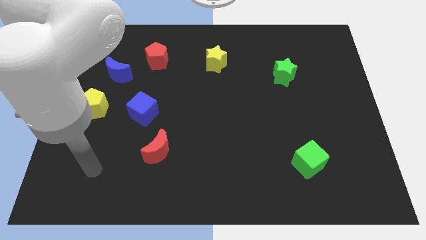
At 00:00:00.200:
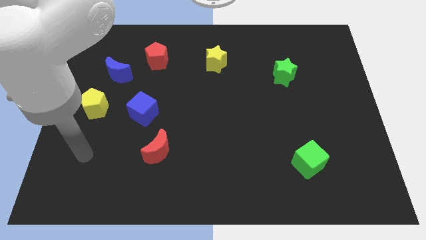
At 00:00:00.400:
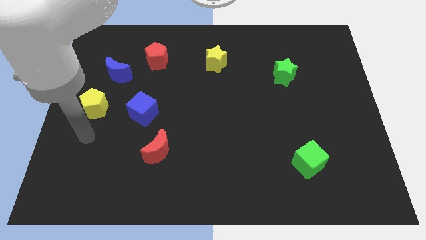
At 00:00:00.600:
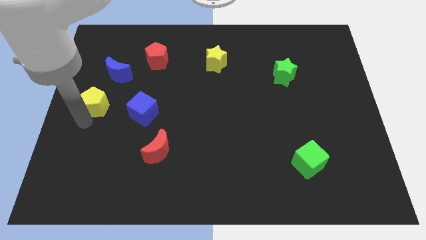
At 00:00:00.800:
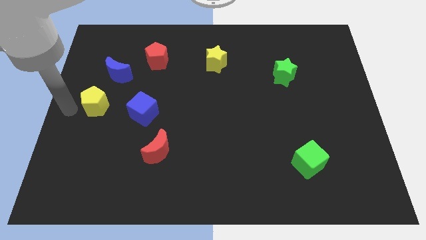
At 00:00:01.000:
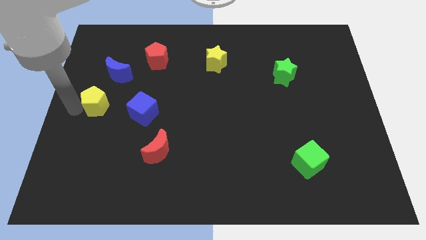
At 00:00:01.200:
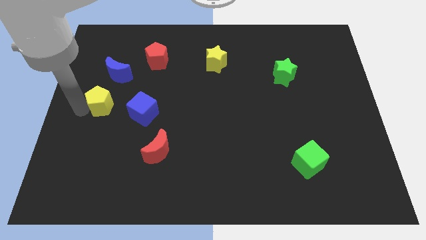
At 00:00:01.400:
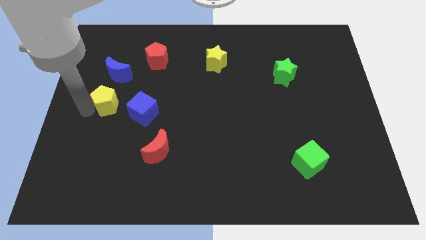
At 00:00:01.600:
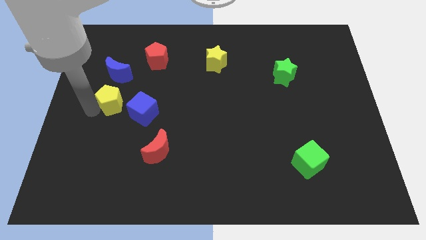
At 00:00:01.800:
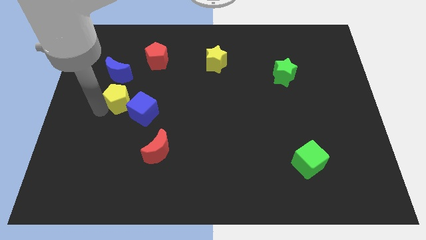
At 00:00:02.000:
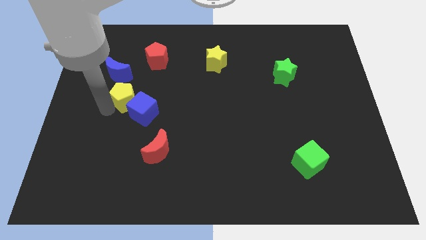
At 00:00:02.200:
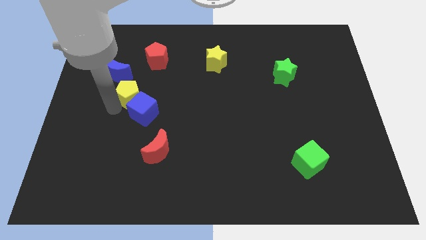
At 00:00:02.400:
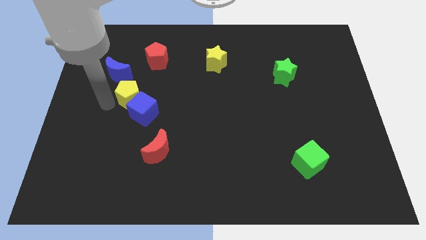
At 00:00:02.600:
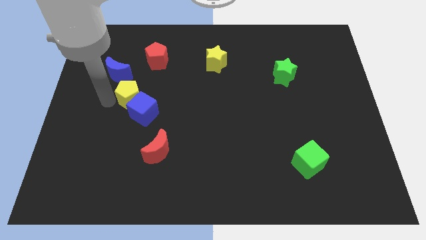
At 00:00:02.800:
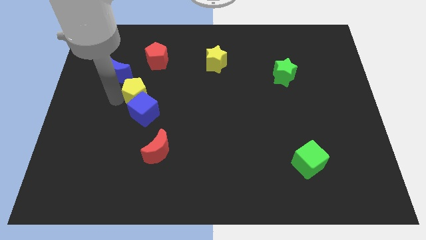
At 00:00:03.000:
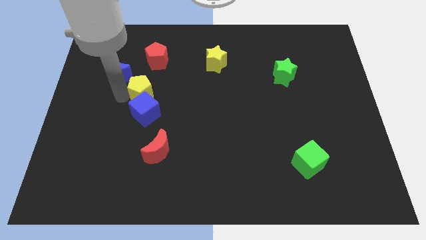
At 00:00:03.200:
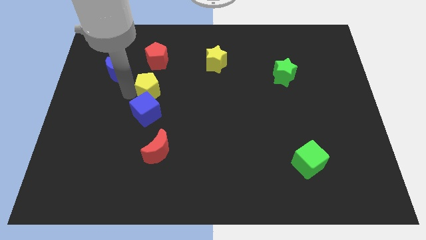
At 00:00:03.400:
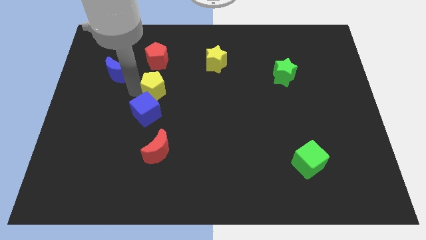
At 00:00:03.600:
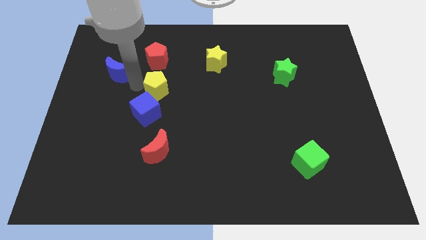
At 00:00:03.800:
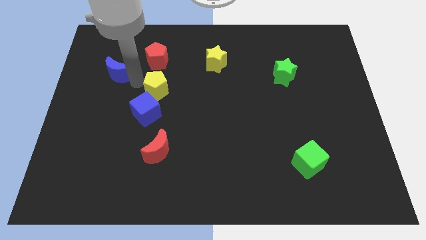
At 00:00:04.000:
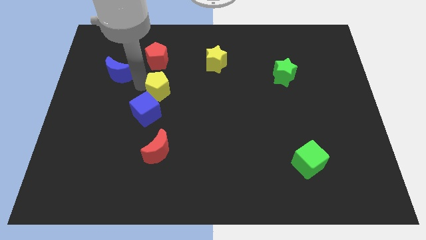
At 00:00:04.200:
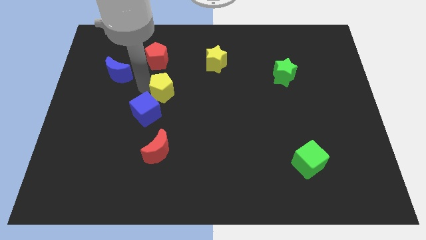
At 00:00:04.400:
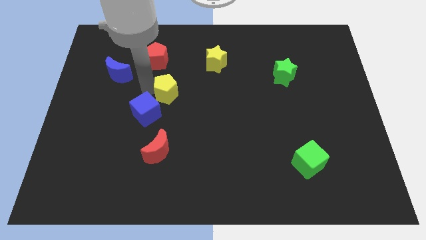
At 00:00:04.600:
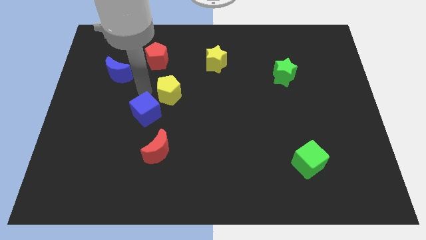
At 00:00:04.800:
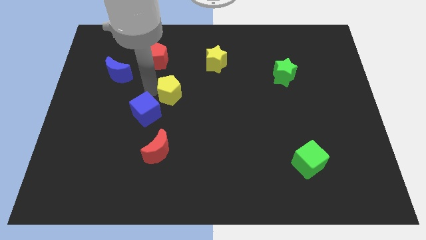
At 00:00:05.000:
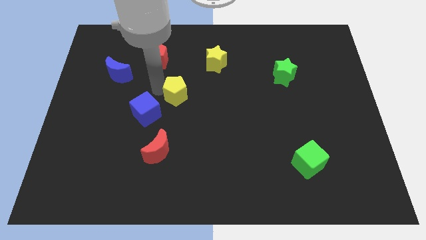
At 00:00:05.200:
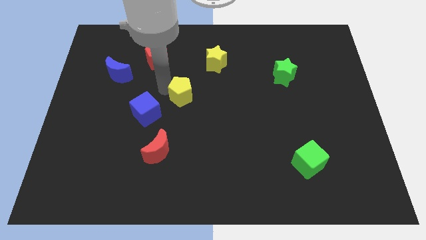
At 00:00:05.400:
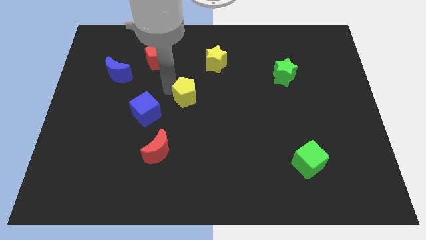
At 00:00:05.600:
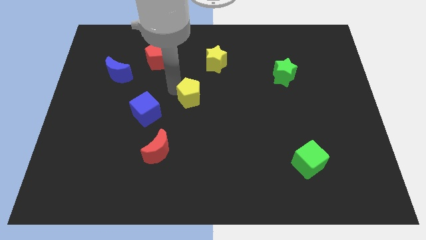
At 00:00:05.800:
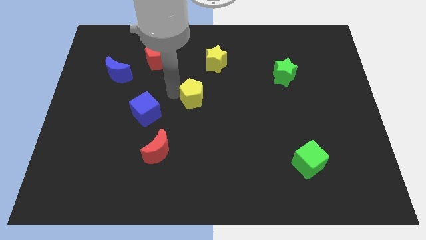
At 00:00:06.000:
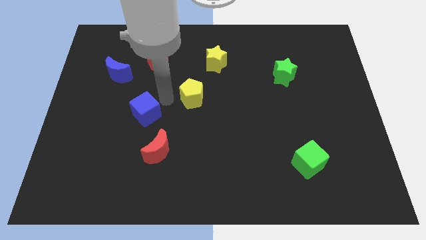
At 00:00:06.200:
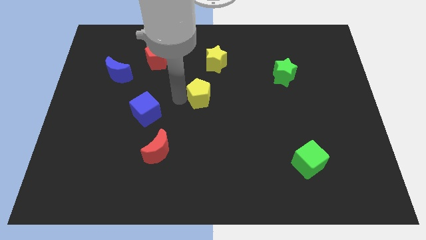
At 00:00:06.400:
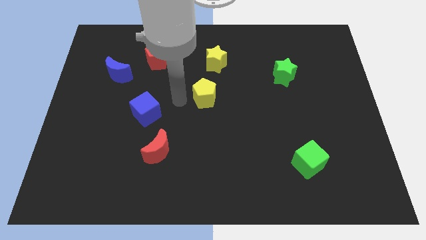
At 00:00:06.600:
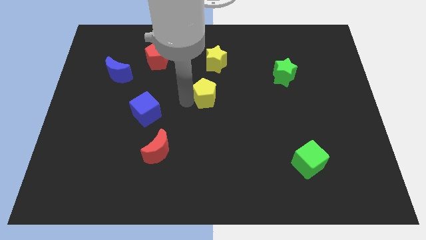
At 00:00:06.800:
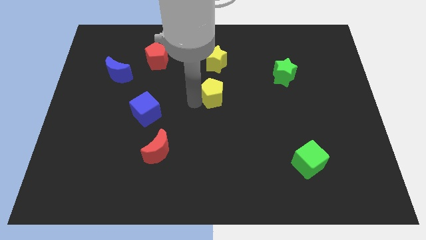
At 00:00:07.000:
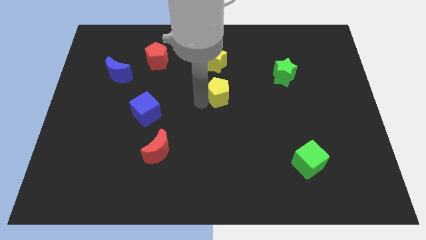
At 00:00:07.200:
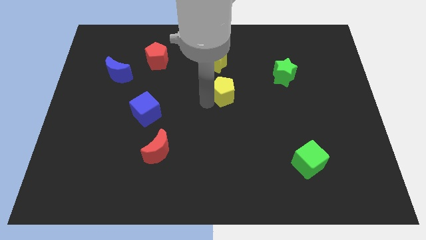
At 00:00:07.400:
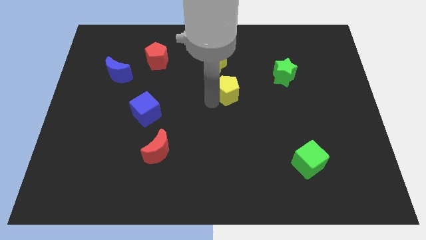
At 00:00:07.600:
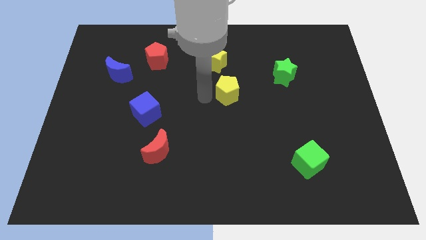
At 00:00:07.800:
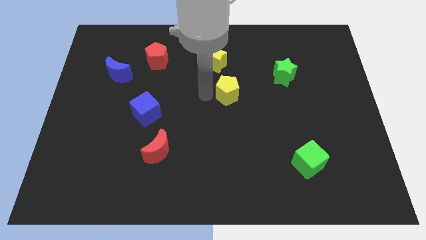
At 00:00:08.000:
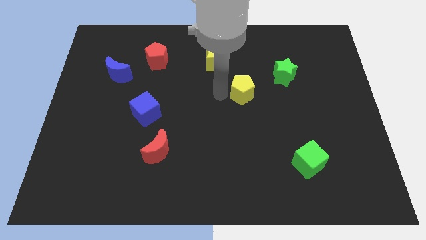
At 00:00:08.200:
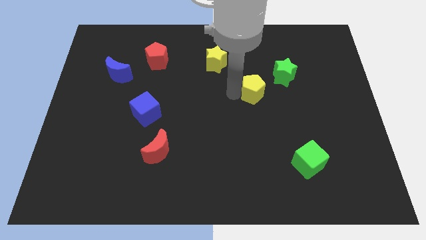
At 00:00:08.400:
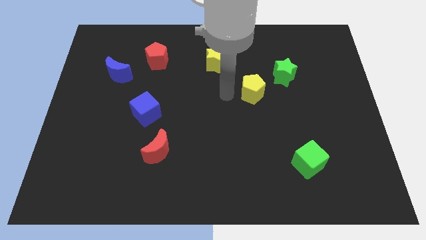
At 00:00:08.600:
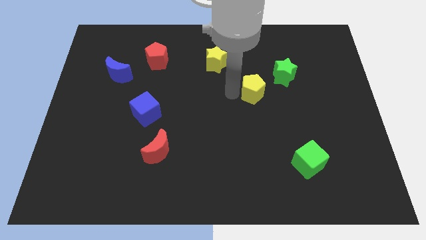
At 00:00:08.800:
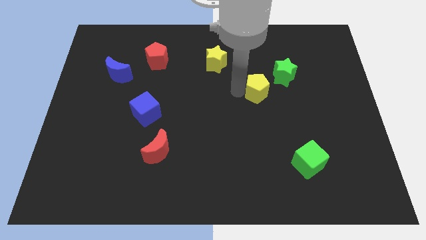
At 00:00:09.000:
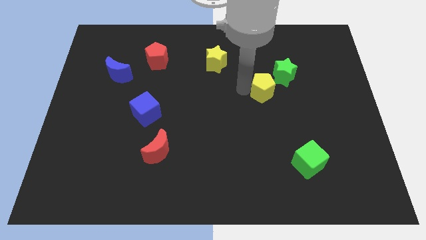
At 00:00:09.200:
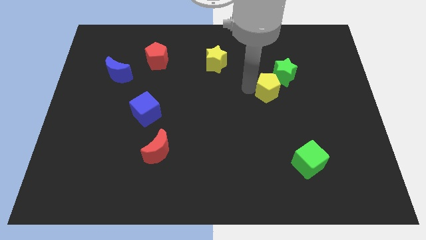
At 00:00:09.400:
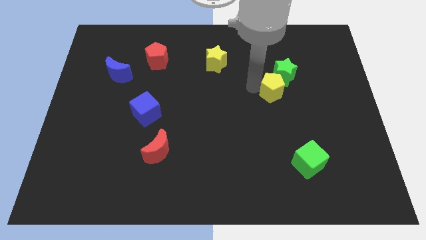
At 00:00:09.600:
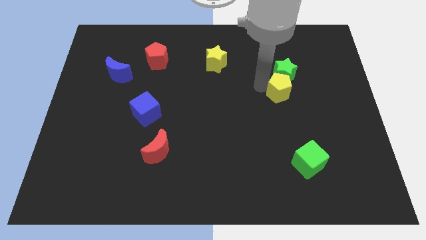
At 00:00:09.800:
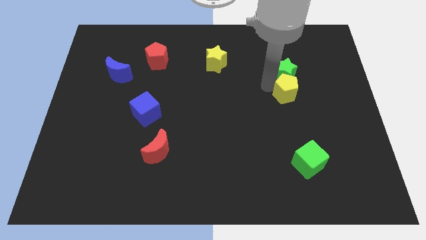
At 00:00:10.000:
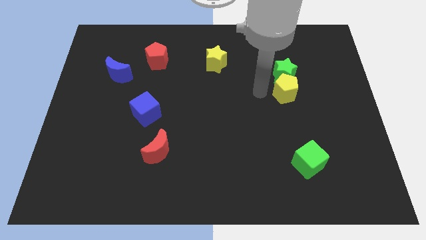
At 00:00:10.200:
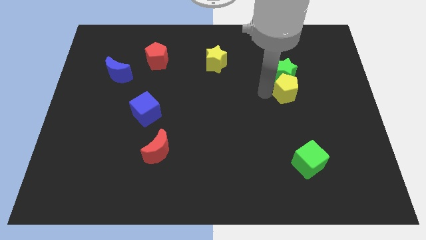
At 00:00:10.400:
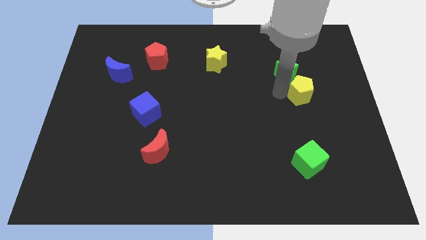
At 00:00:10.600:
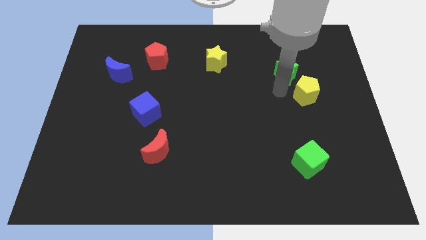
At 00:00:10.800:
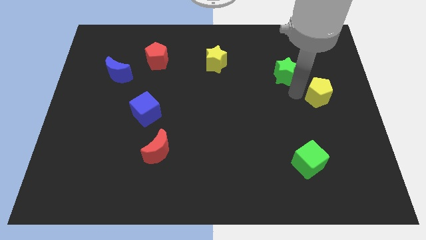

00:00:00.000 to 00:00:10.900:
put the yellow pentagon to the right side
